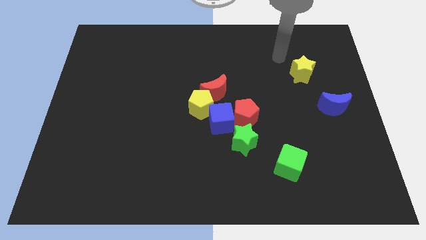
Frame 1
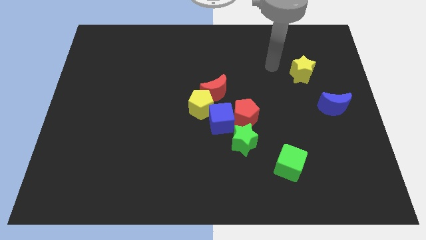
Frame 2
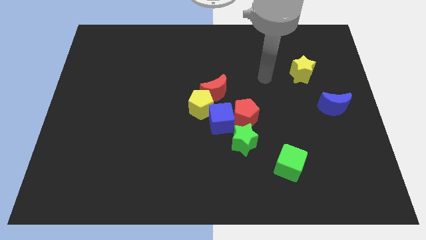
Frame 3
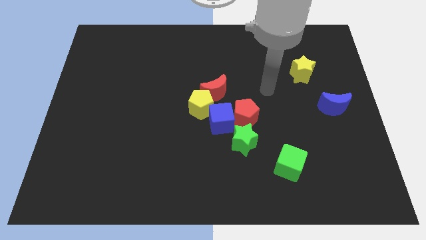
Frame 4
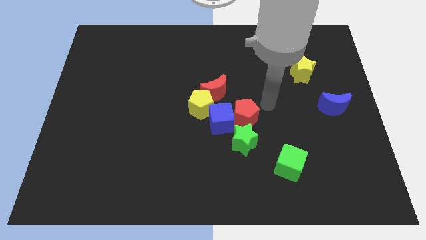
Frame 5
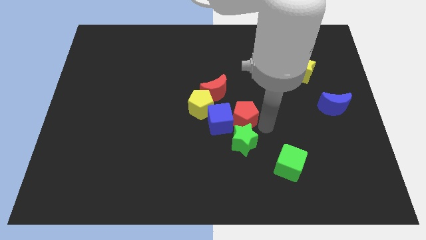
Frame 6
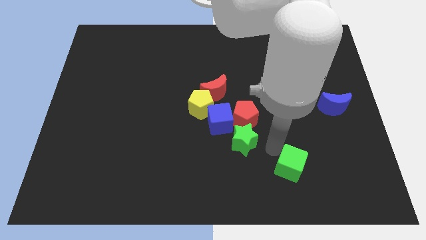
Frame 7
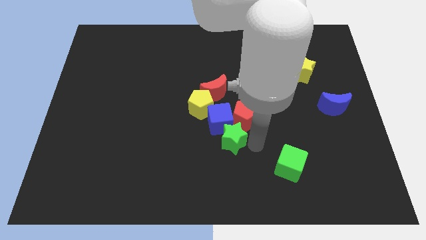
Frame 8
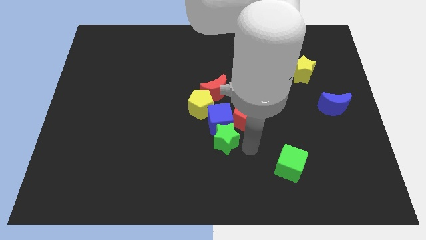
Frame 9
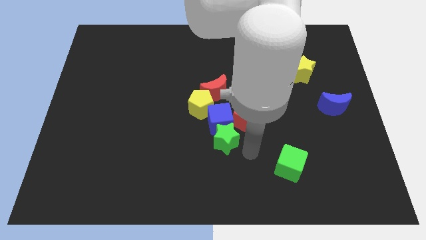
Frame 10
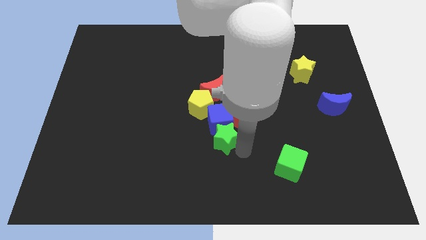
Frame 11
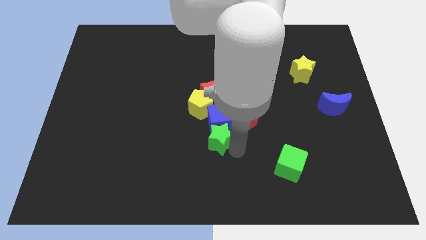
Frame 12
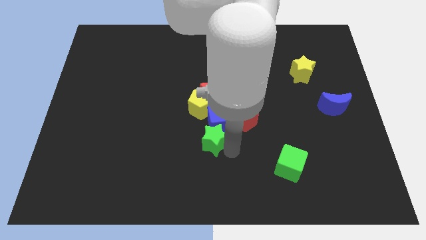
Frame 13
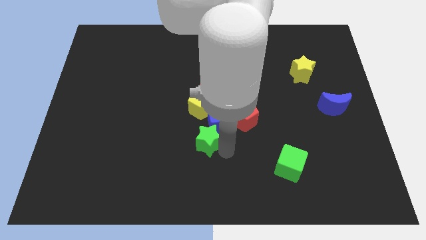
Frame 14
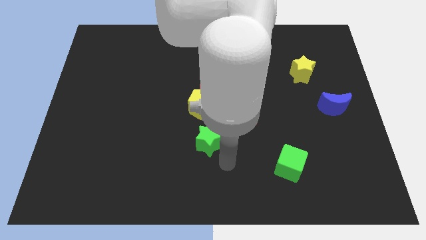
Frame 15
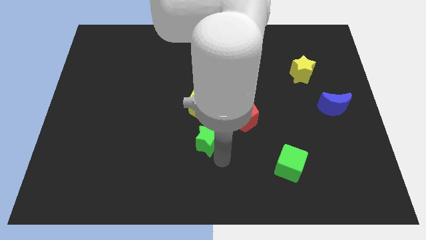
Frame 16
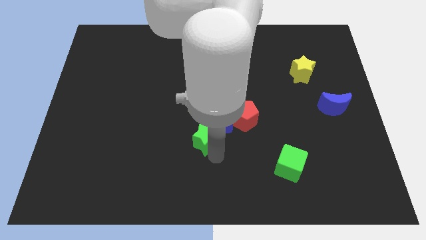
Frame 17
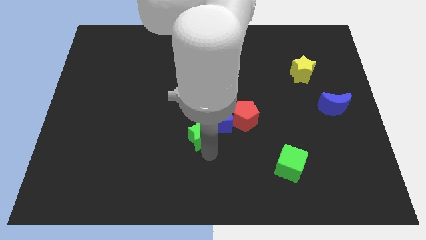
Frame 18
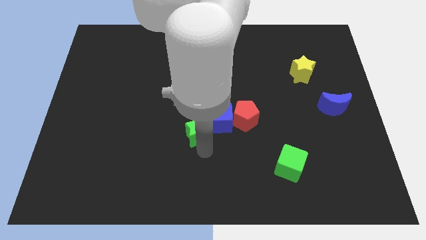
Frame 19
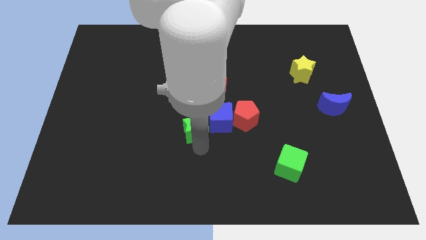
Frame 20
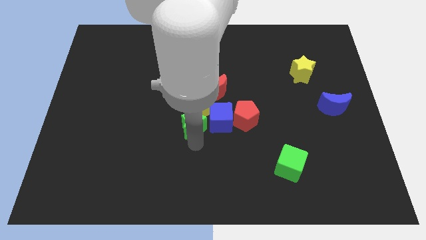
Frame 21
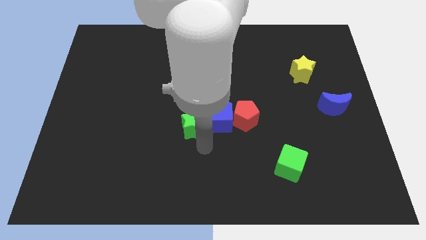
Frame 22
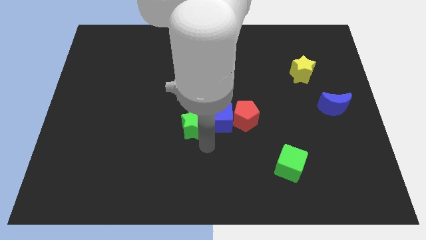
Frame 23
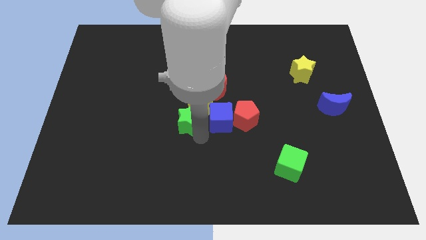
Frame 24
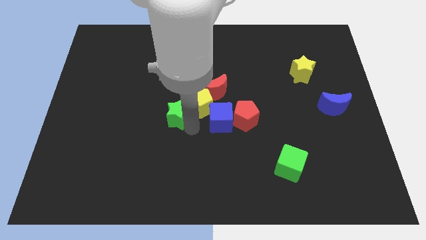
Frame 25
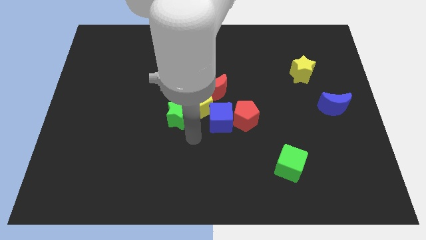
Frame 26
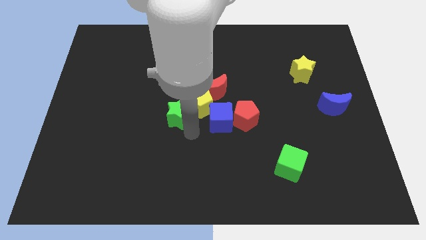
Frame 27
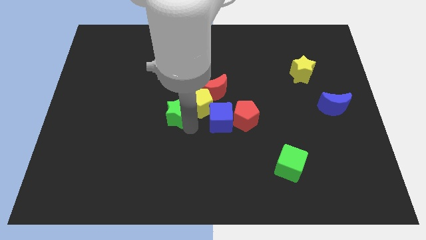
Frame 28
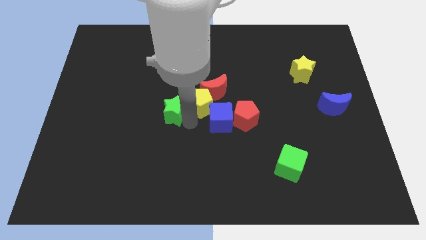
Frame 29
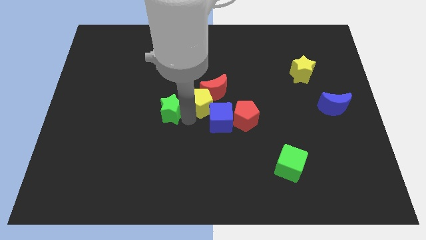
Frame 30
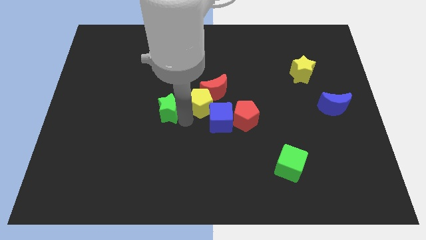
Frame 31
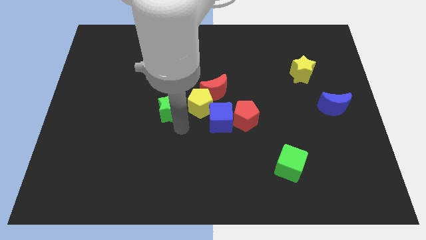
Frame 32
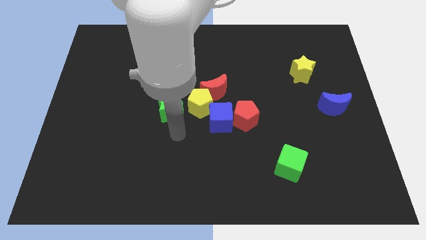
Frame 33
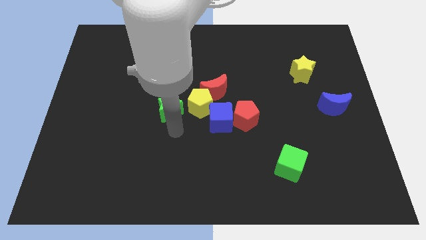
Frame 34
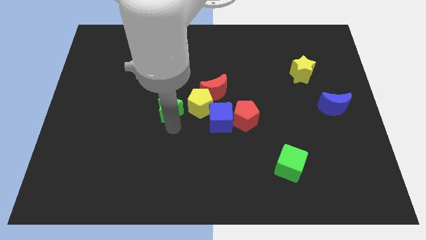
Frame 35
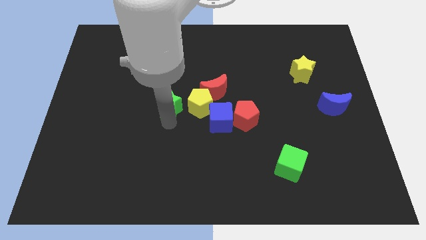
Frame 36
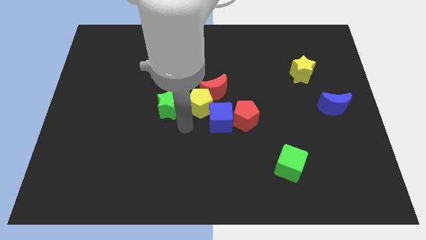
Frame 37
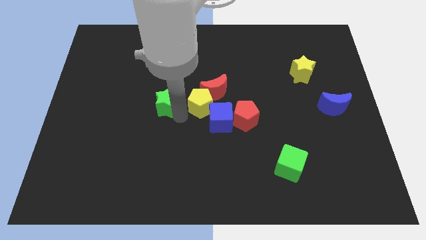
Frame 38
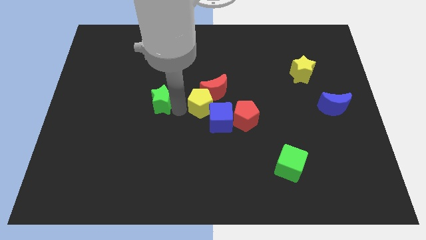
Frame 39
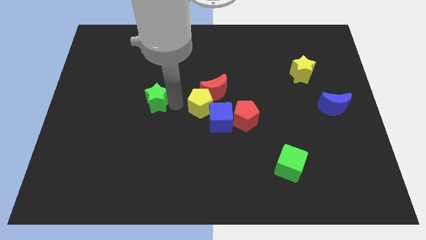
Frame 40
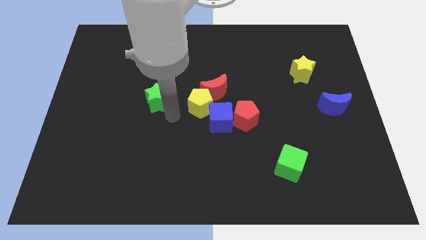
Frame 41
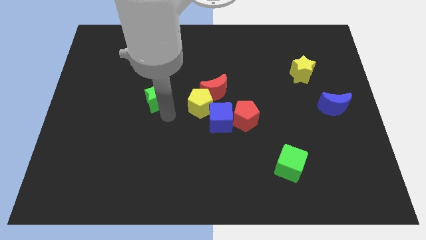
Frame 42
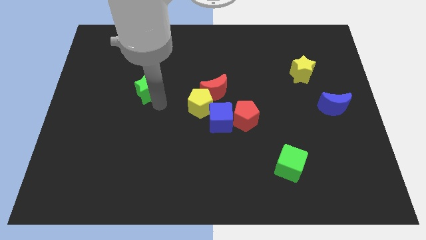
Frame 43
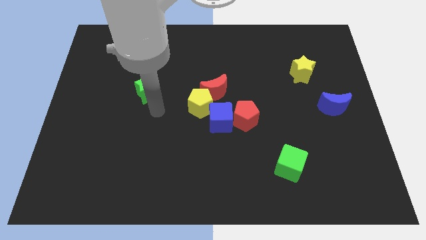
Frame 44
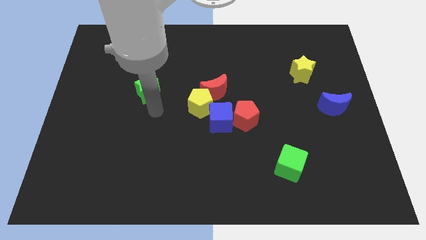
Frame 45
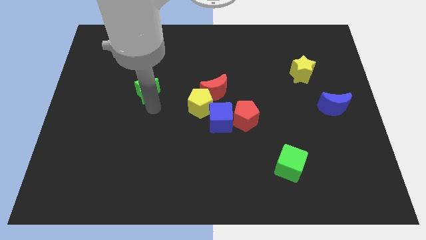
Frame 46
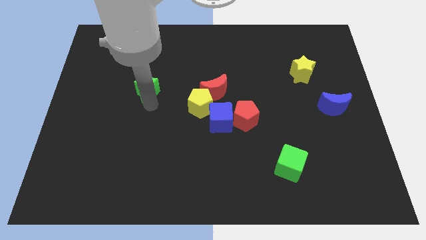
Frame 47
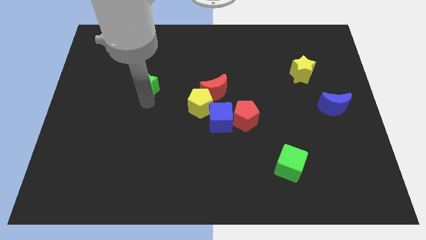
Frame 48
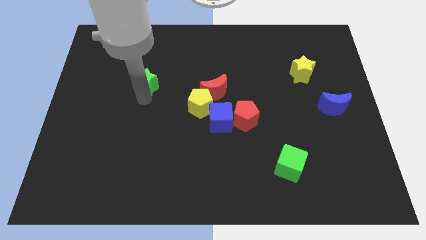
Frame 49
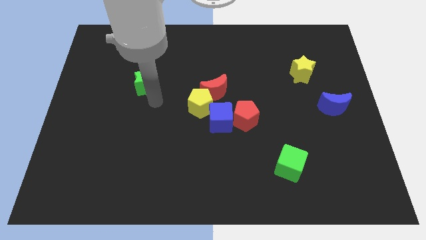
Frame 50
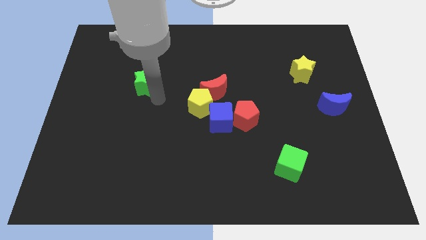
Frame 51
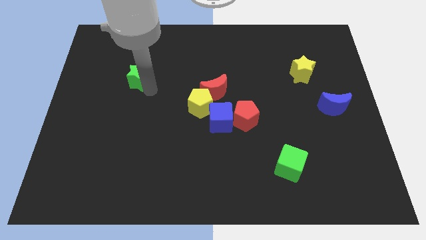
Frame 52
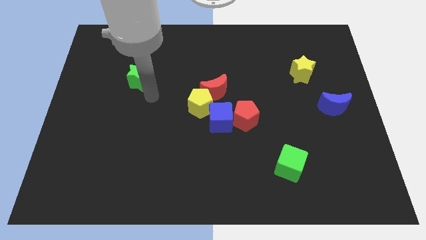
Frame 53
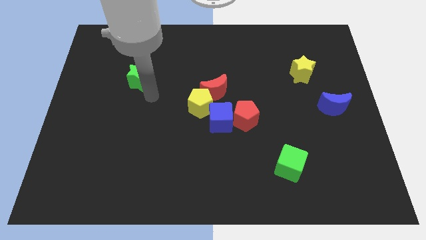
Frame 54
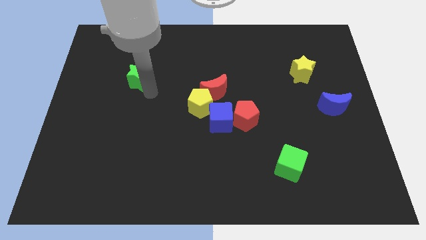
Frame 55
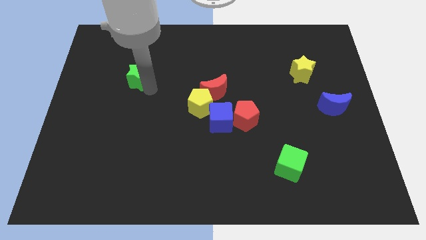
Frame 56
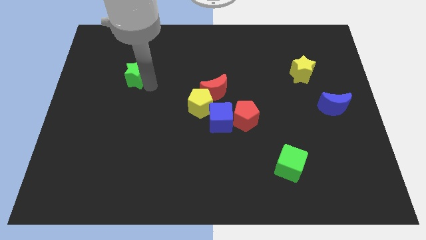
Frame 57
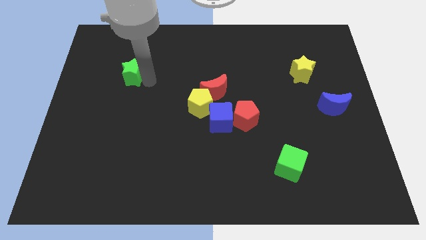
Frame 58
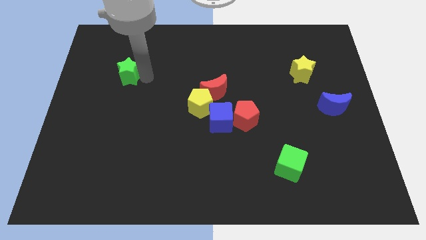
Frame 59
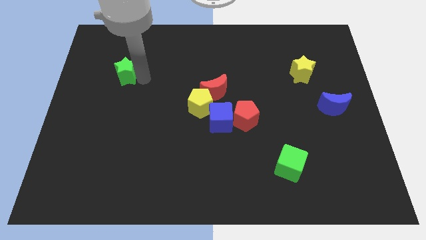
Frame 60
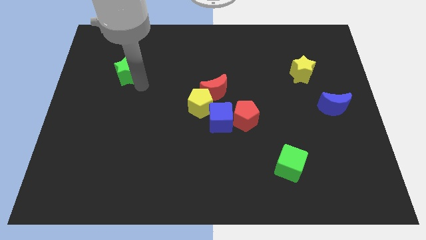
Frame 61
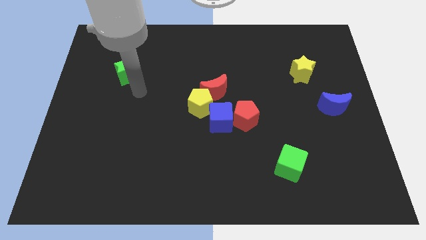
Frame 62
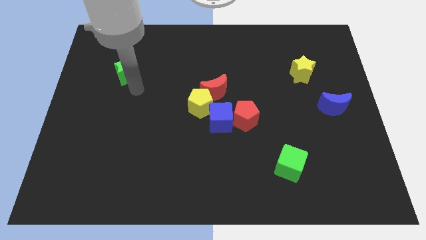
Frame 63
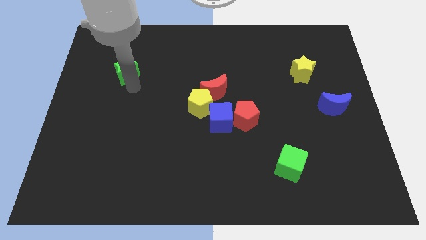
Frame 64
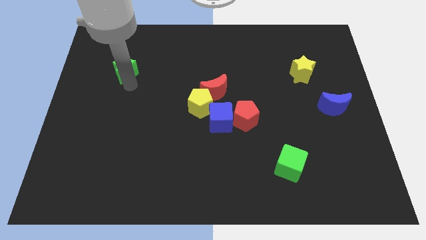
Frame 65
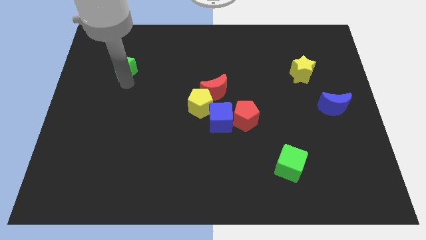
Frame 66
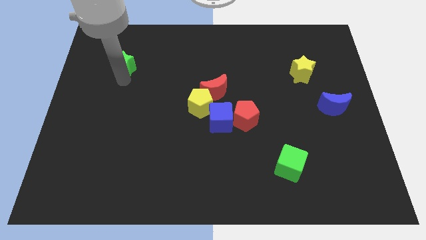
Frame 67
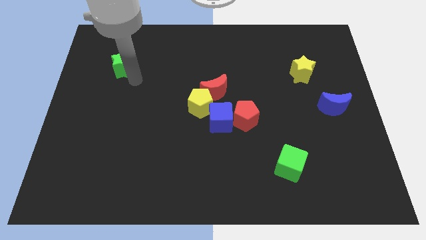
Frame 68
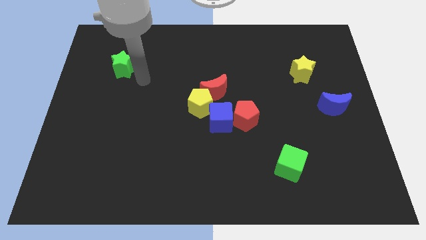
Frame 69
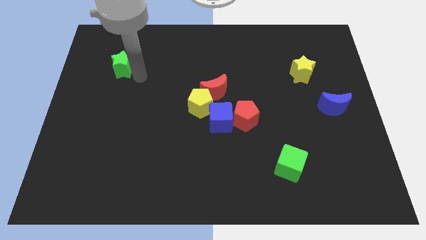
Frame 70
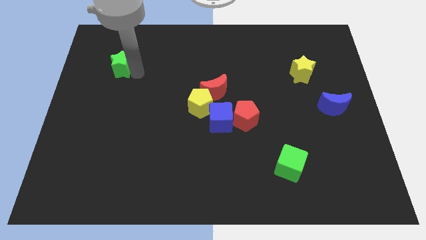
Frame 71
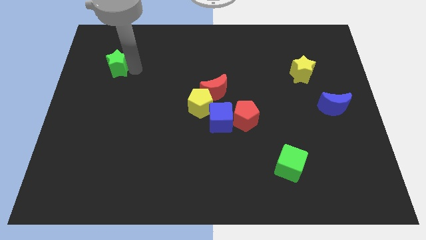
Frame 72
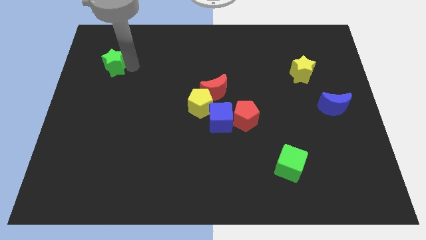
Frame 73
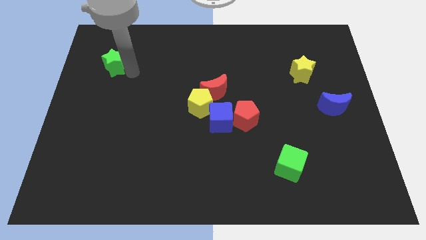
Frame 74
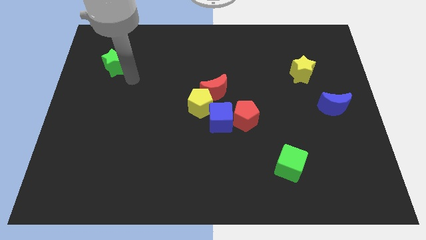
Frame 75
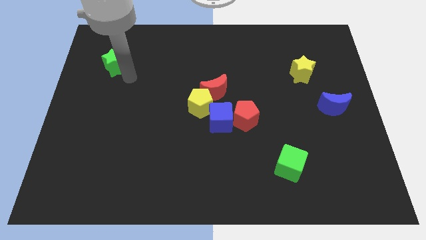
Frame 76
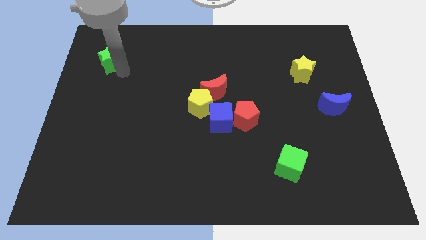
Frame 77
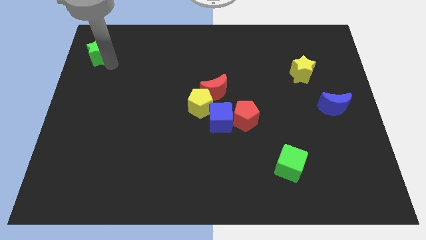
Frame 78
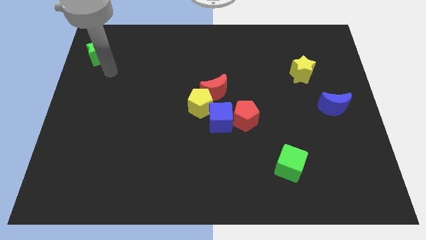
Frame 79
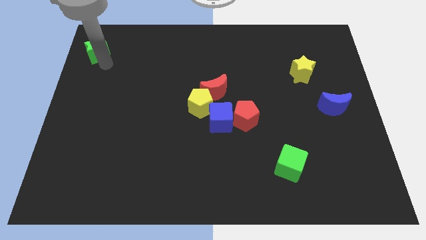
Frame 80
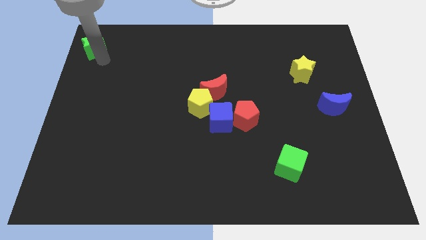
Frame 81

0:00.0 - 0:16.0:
slide the green star to the upper left corner
